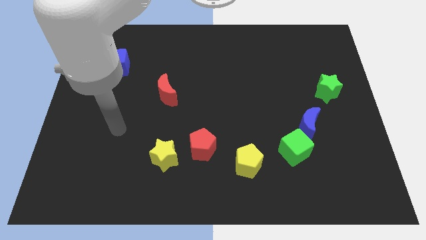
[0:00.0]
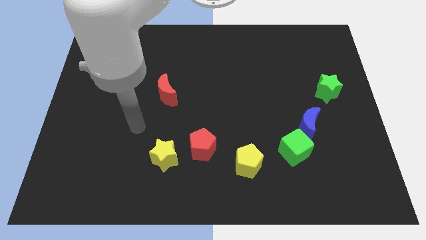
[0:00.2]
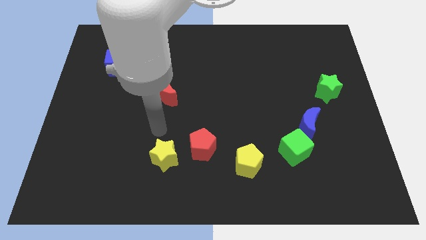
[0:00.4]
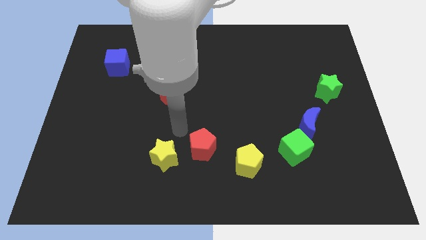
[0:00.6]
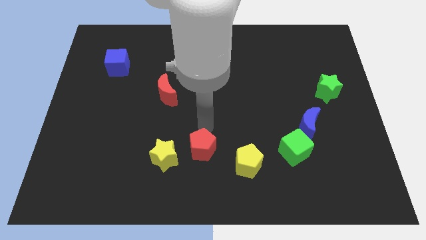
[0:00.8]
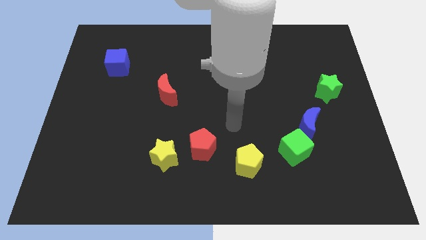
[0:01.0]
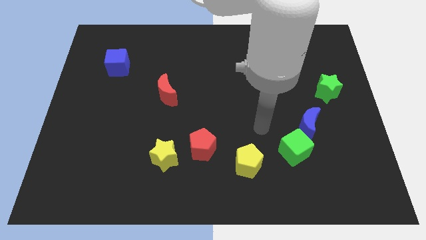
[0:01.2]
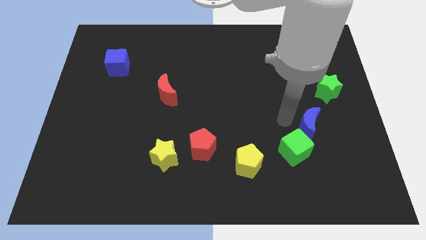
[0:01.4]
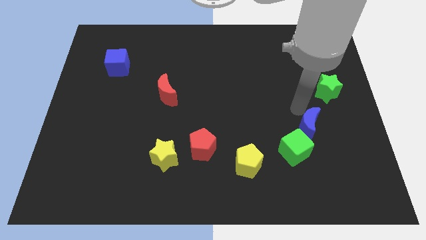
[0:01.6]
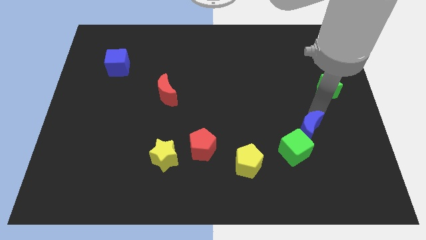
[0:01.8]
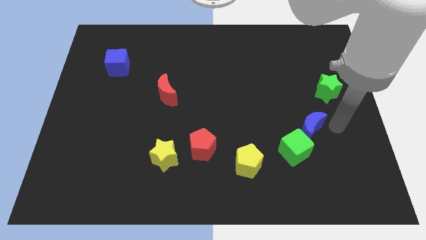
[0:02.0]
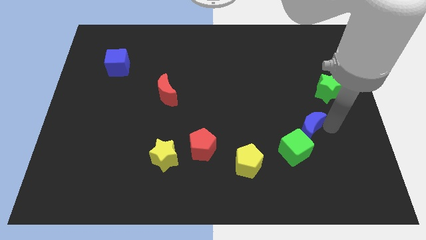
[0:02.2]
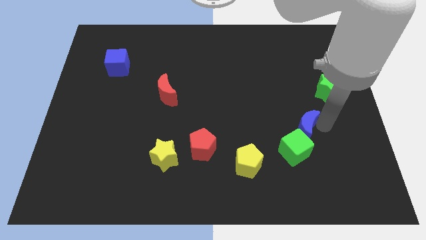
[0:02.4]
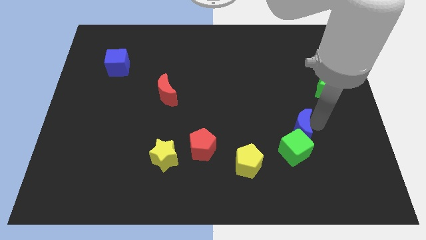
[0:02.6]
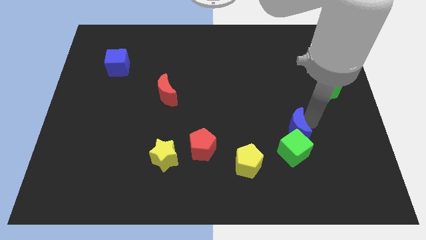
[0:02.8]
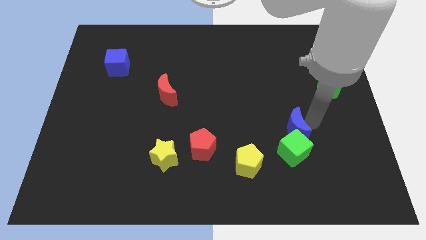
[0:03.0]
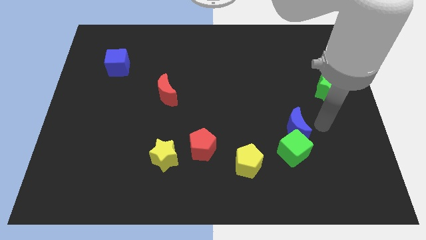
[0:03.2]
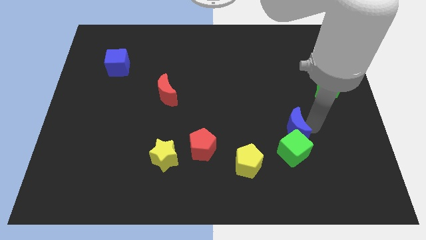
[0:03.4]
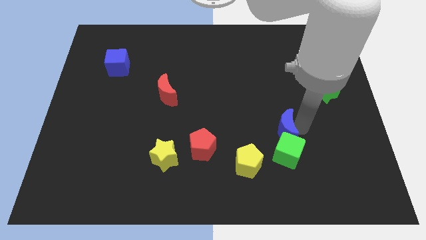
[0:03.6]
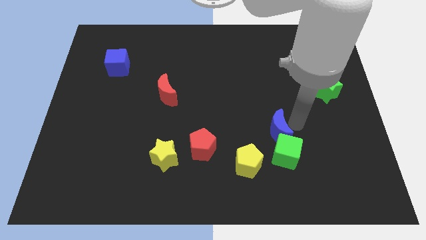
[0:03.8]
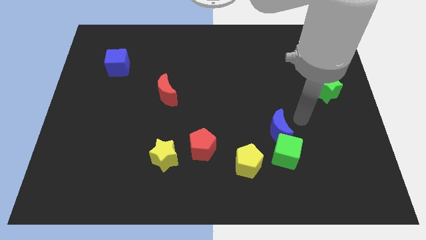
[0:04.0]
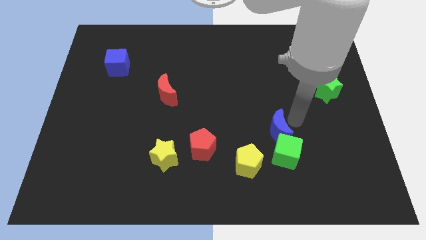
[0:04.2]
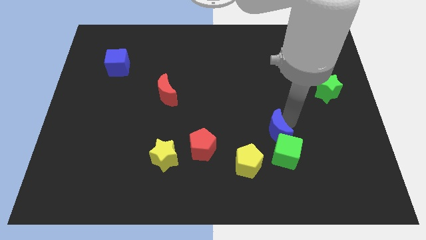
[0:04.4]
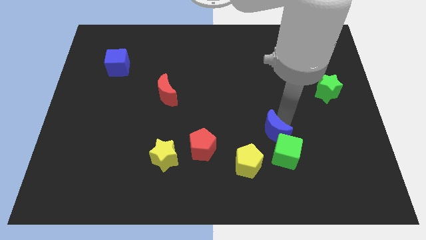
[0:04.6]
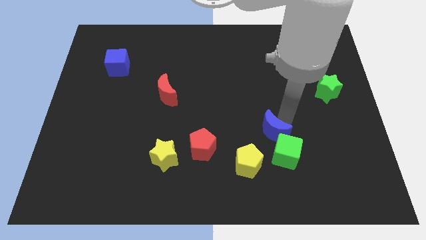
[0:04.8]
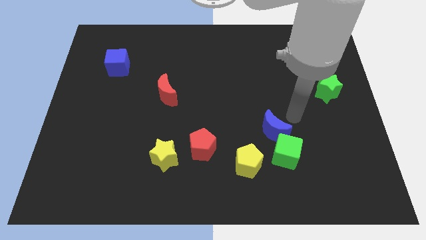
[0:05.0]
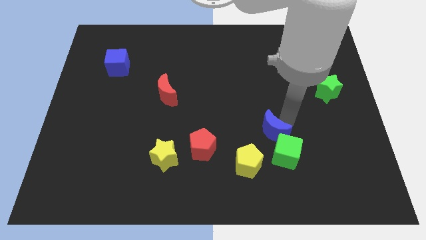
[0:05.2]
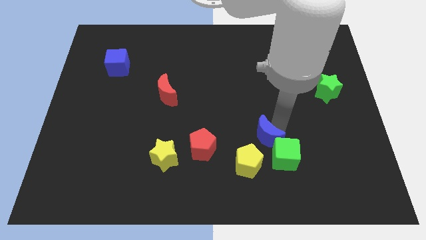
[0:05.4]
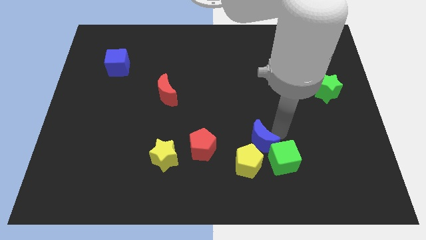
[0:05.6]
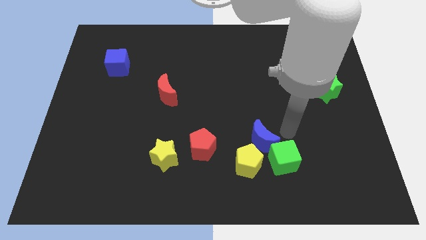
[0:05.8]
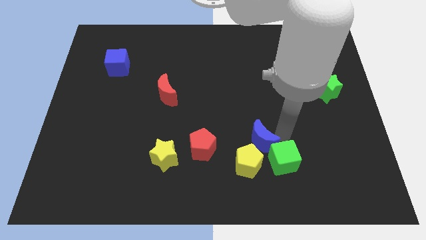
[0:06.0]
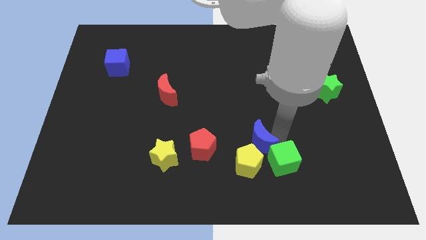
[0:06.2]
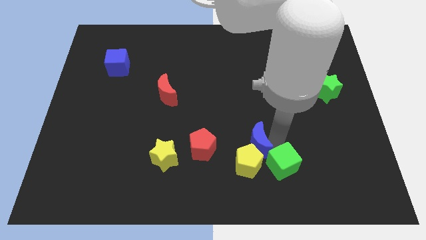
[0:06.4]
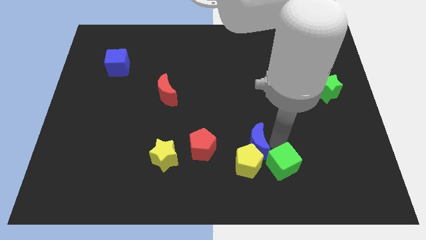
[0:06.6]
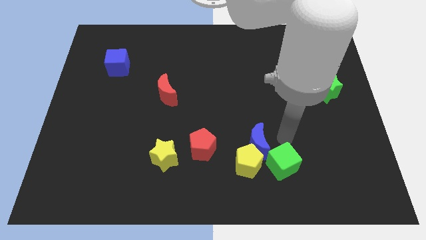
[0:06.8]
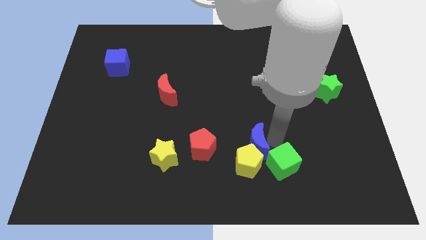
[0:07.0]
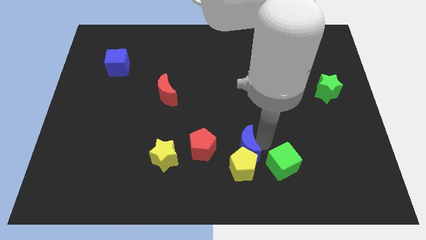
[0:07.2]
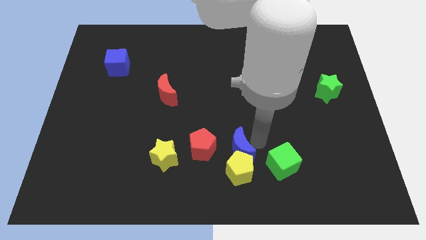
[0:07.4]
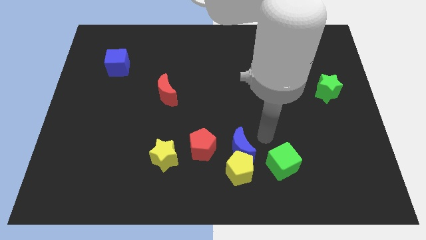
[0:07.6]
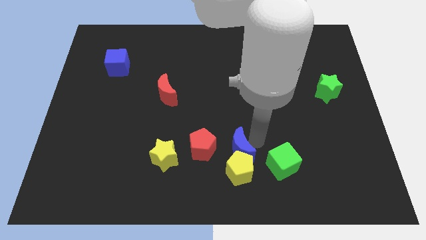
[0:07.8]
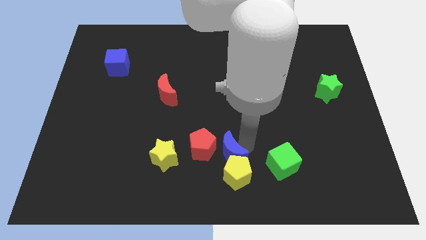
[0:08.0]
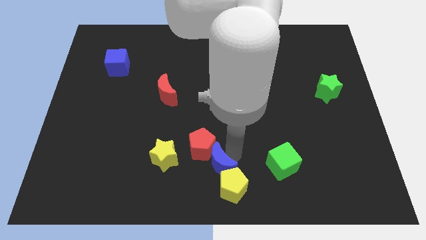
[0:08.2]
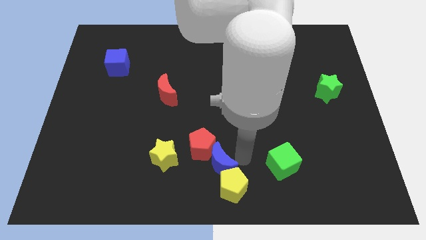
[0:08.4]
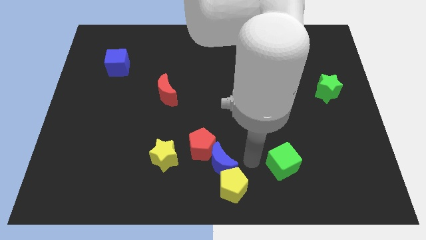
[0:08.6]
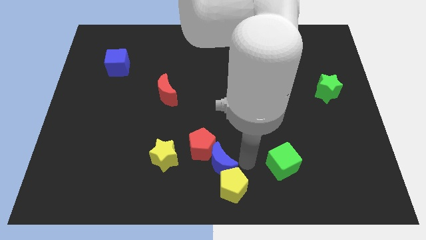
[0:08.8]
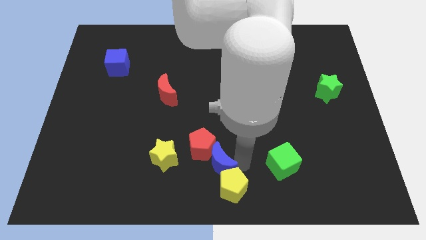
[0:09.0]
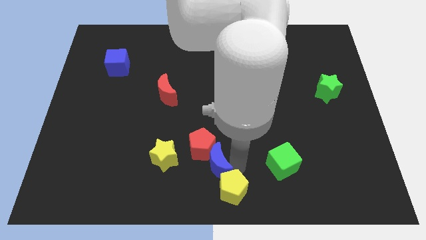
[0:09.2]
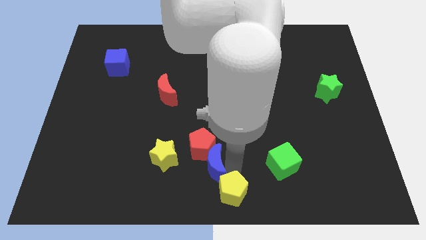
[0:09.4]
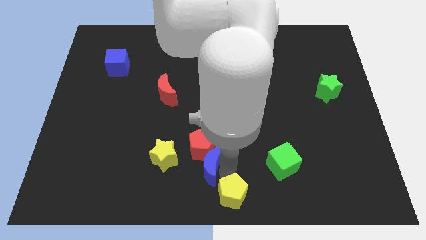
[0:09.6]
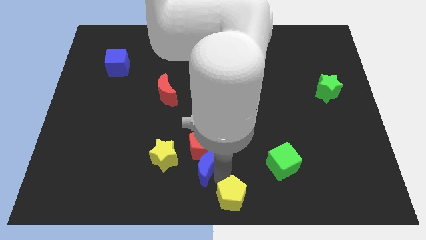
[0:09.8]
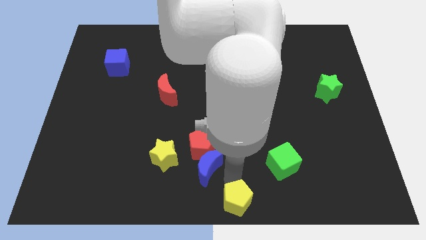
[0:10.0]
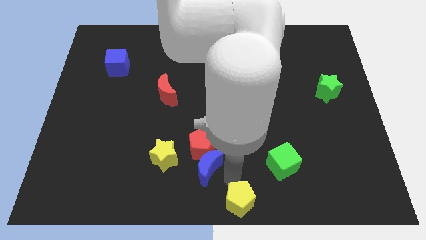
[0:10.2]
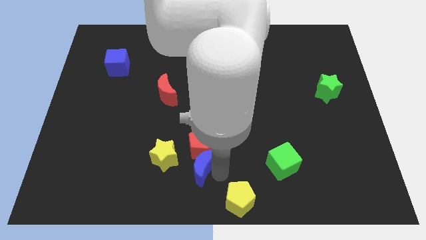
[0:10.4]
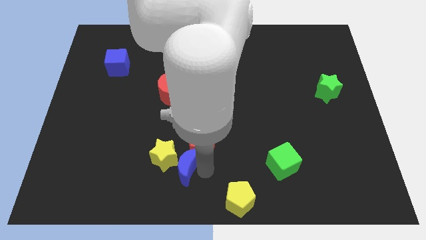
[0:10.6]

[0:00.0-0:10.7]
push the blue moon close to the yellow star

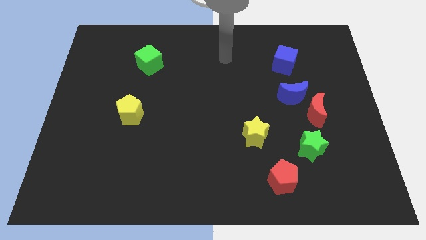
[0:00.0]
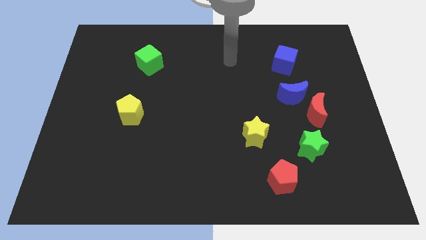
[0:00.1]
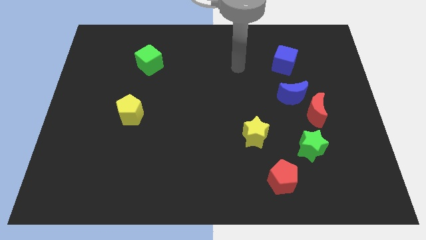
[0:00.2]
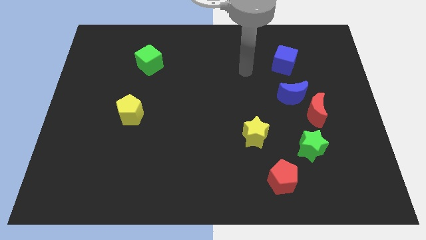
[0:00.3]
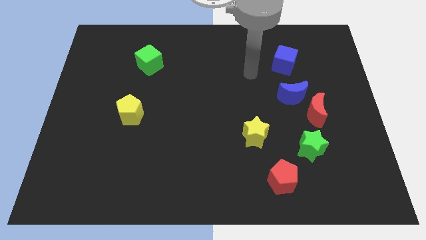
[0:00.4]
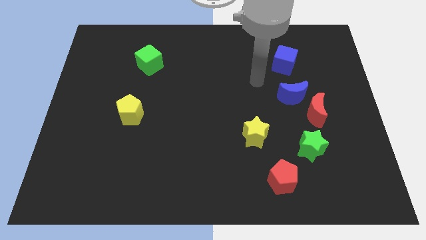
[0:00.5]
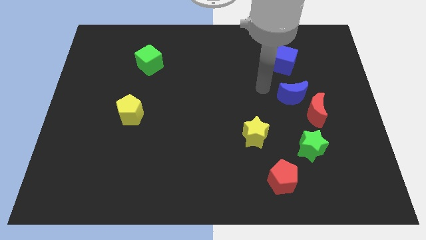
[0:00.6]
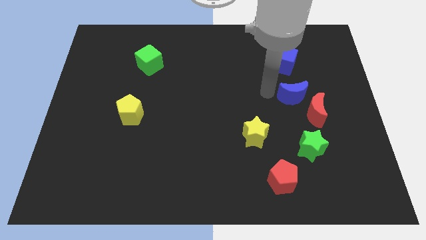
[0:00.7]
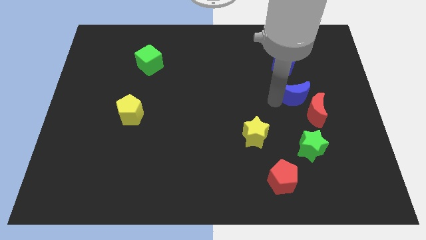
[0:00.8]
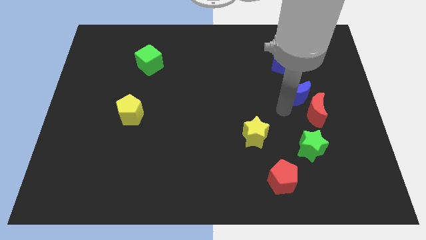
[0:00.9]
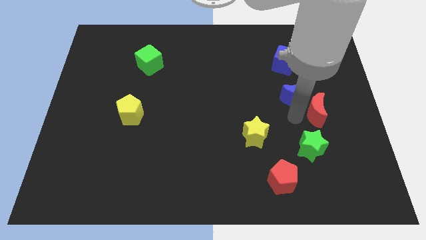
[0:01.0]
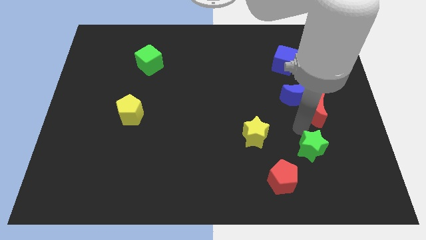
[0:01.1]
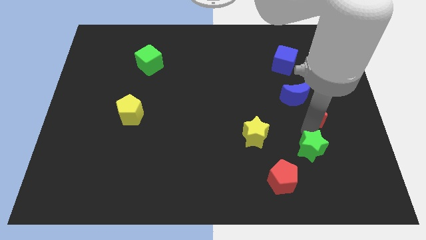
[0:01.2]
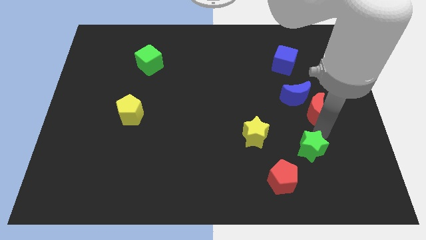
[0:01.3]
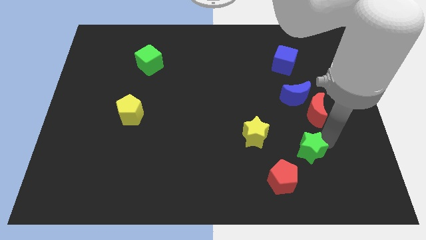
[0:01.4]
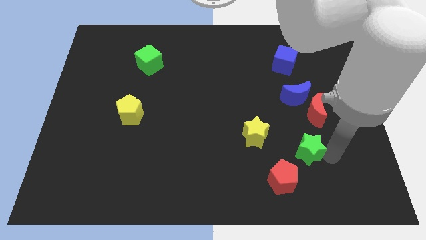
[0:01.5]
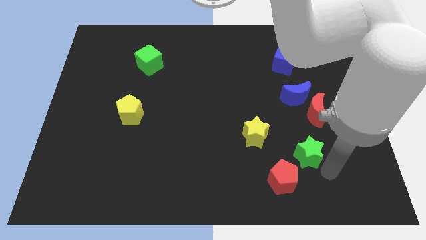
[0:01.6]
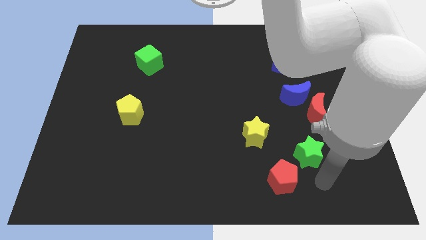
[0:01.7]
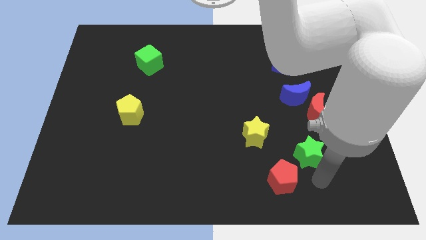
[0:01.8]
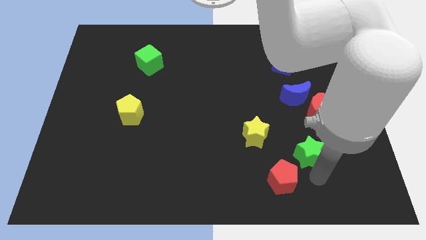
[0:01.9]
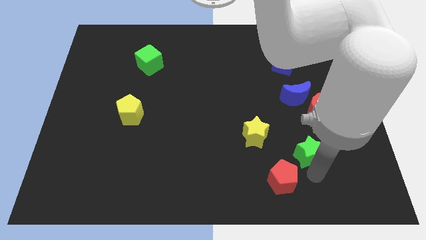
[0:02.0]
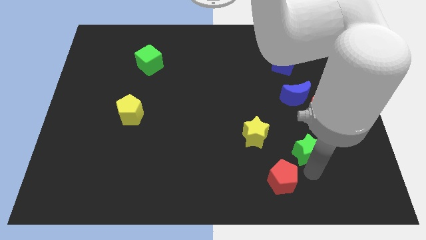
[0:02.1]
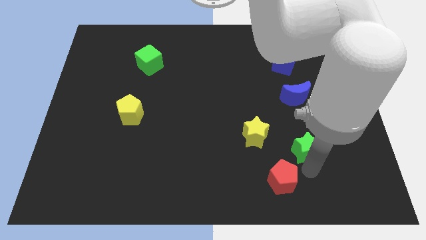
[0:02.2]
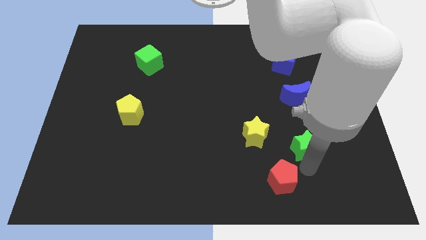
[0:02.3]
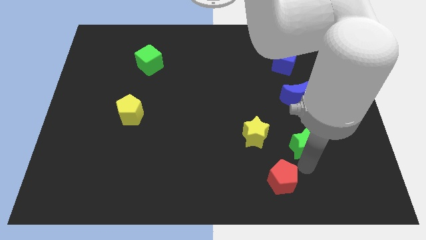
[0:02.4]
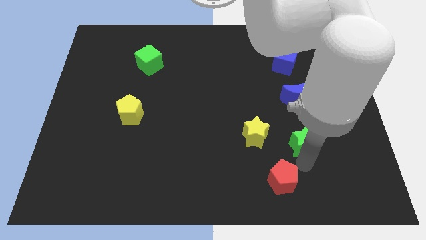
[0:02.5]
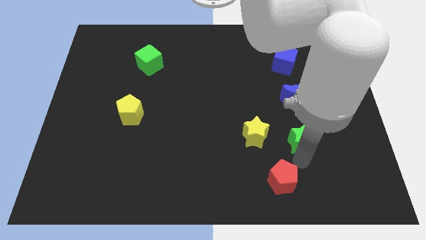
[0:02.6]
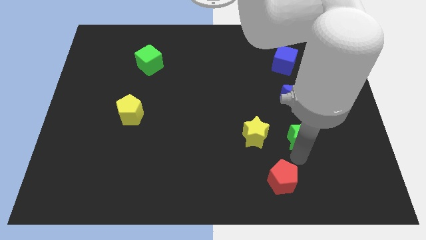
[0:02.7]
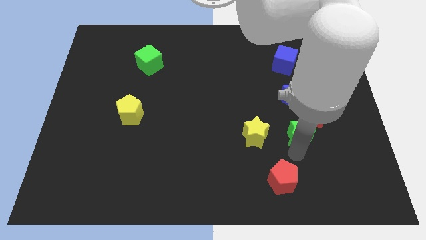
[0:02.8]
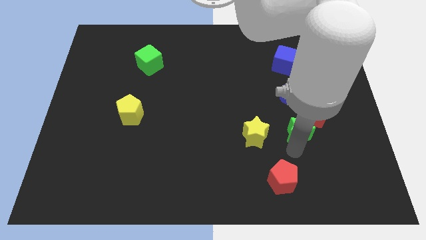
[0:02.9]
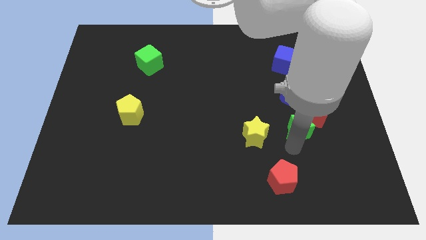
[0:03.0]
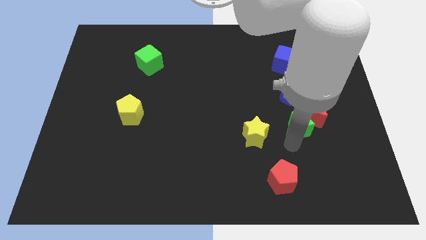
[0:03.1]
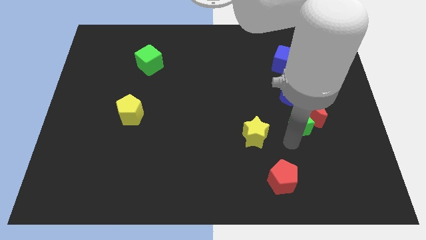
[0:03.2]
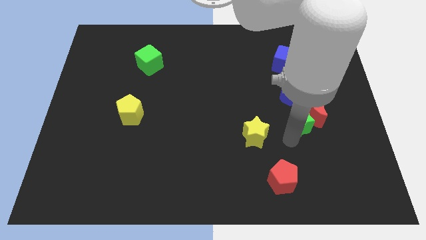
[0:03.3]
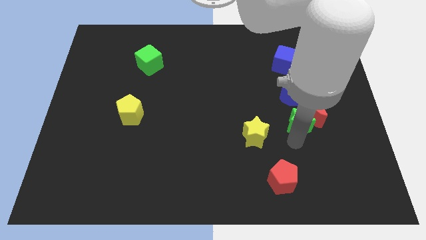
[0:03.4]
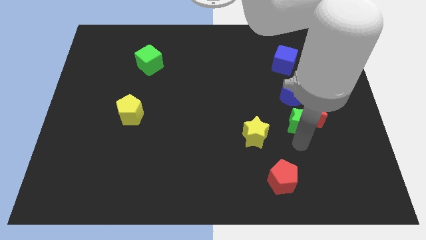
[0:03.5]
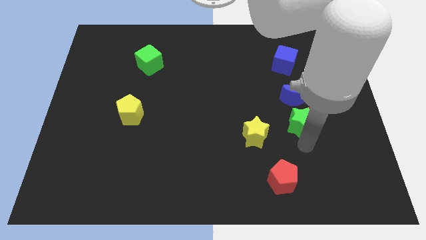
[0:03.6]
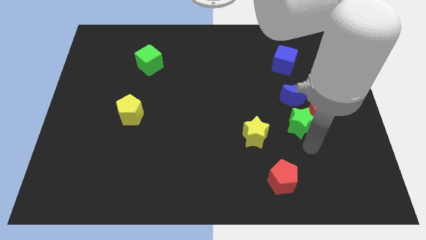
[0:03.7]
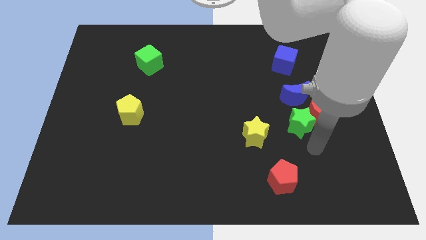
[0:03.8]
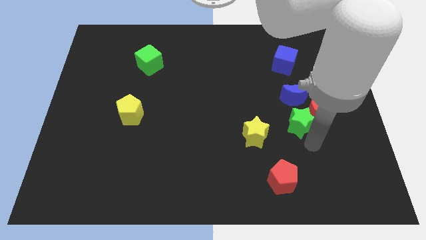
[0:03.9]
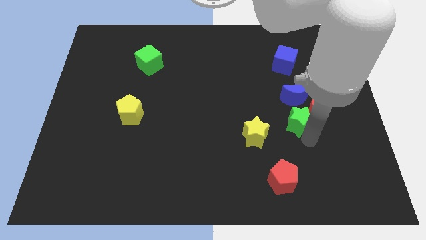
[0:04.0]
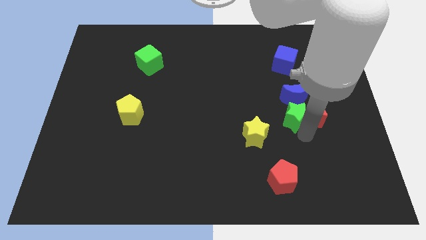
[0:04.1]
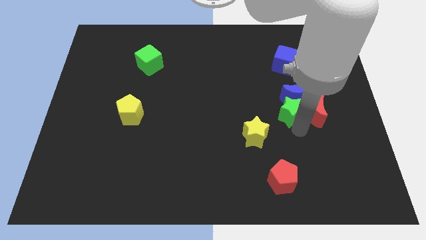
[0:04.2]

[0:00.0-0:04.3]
put the green star next to the blue moon
